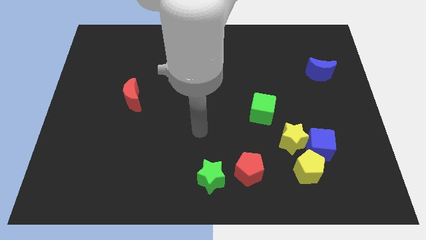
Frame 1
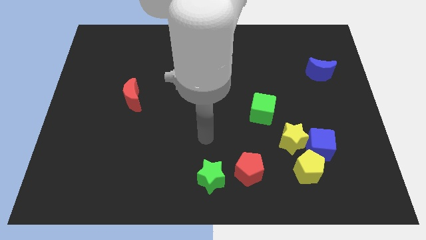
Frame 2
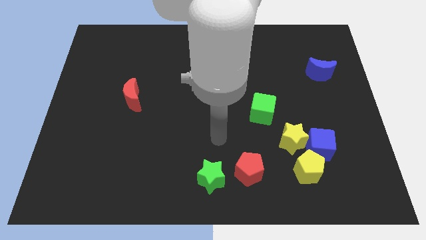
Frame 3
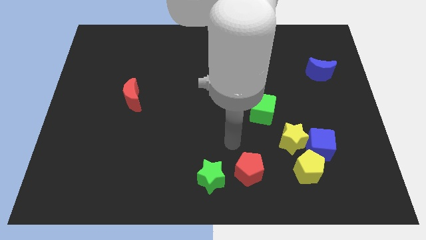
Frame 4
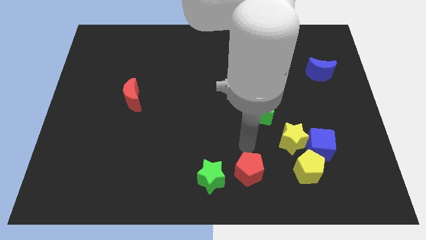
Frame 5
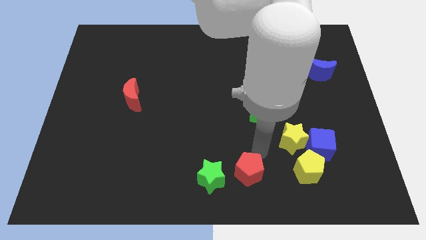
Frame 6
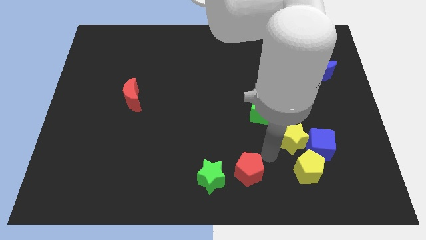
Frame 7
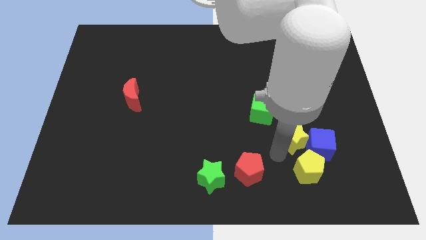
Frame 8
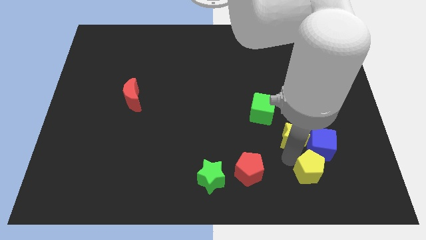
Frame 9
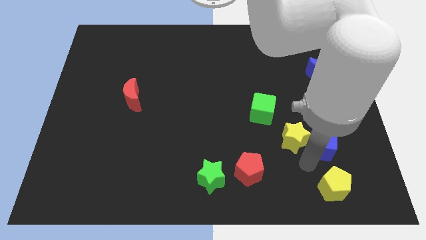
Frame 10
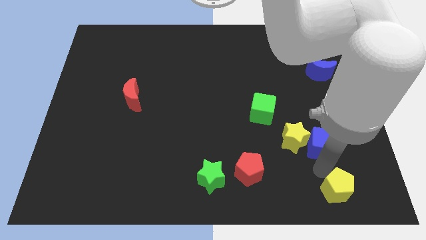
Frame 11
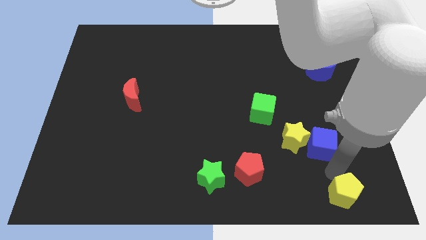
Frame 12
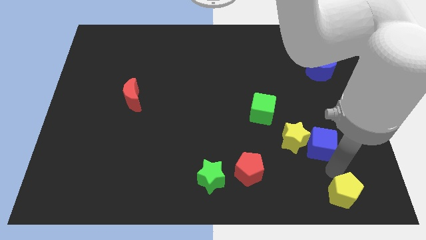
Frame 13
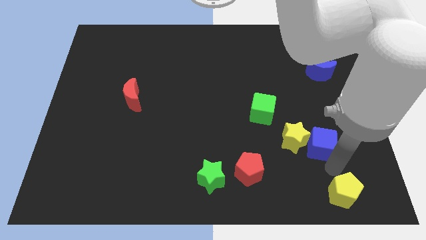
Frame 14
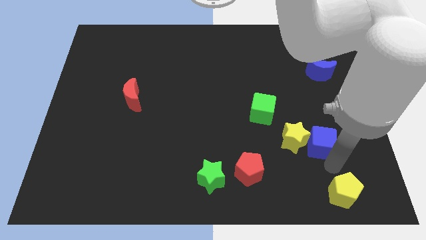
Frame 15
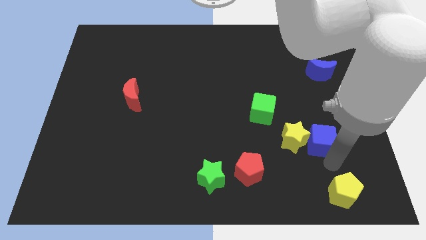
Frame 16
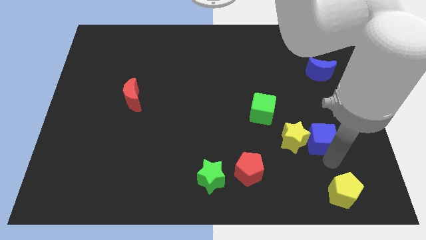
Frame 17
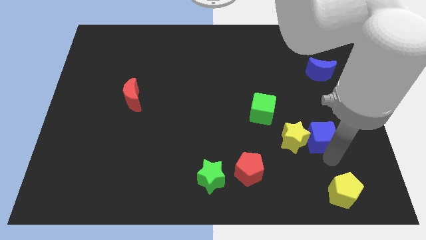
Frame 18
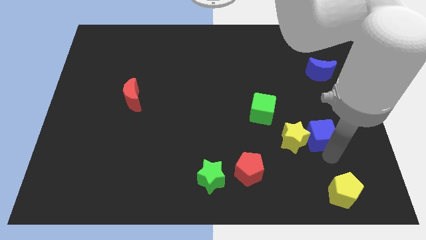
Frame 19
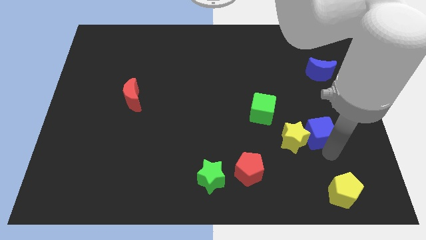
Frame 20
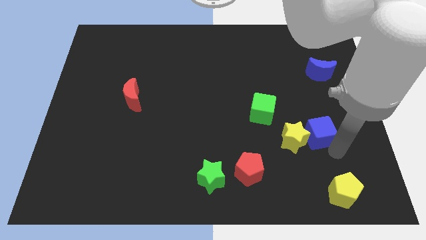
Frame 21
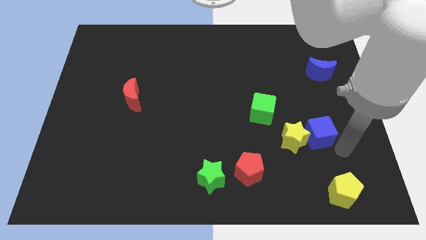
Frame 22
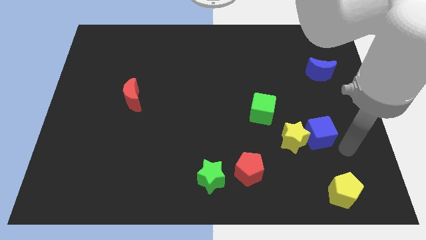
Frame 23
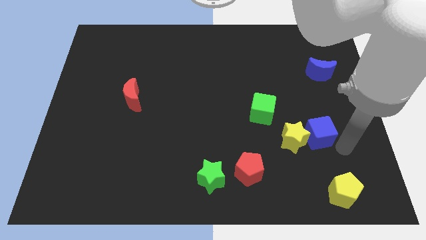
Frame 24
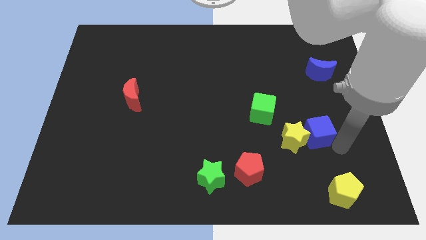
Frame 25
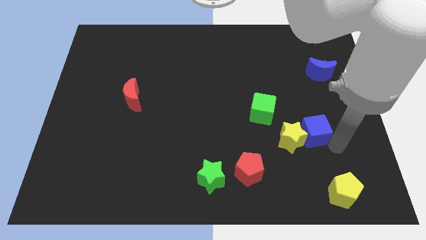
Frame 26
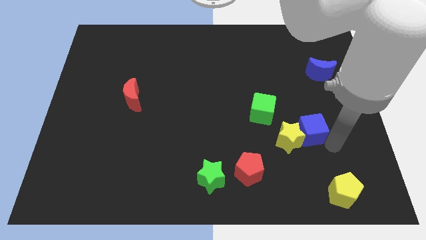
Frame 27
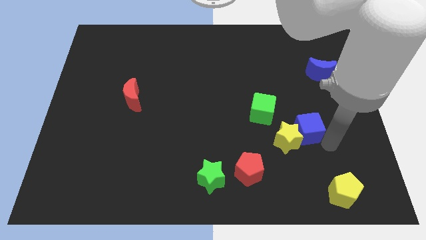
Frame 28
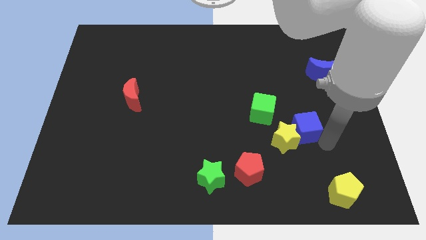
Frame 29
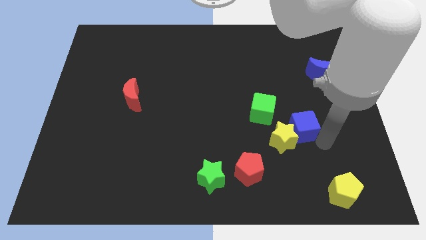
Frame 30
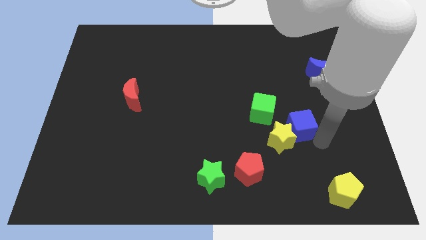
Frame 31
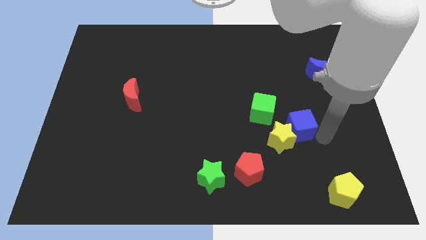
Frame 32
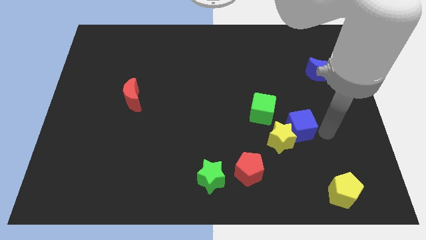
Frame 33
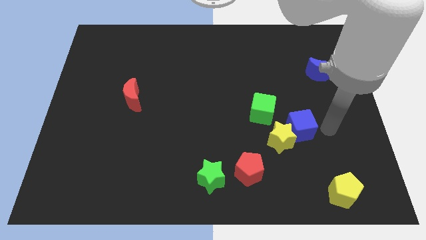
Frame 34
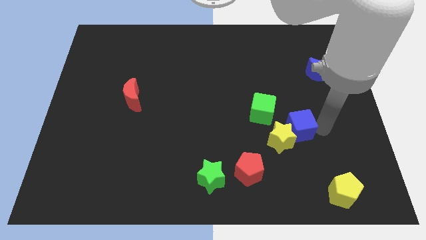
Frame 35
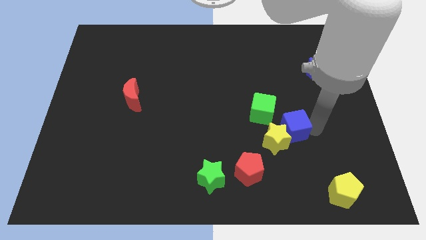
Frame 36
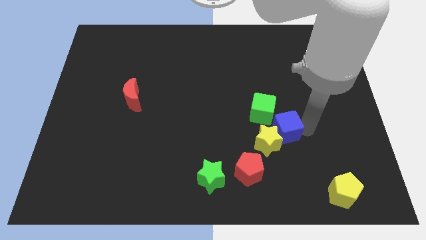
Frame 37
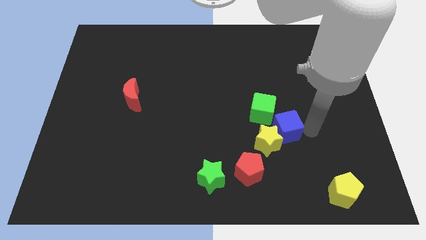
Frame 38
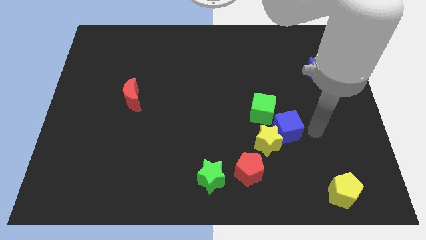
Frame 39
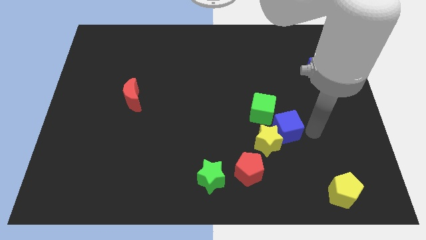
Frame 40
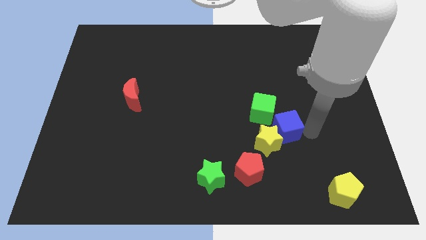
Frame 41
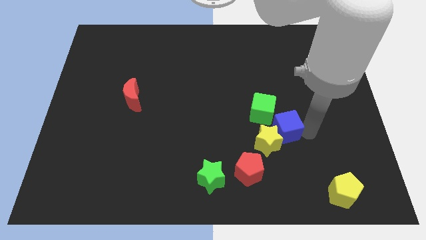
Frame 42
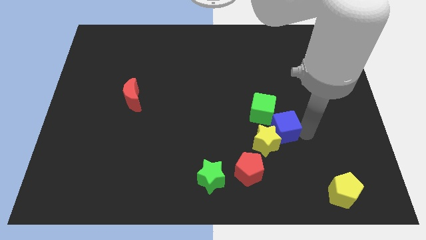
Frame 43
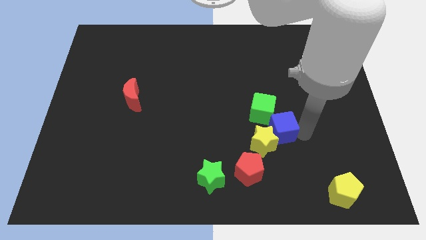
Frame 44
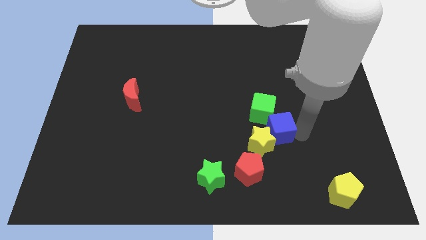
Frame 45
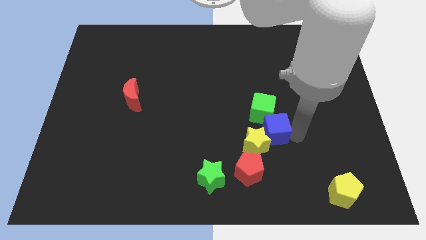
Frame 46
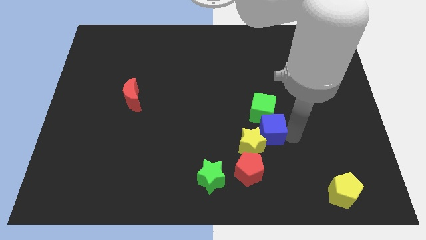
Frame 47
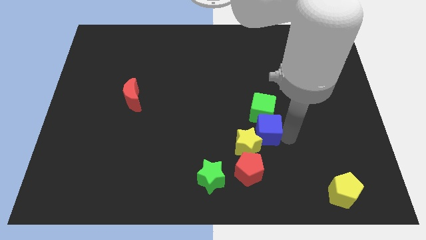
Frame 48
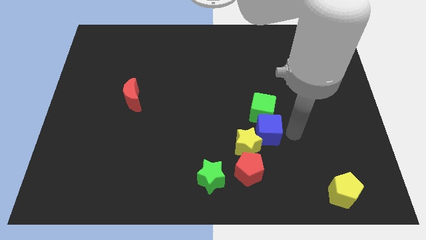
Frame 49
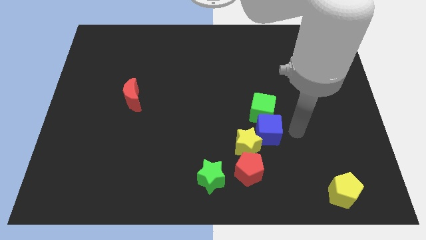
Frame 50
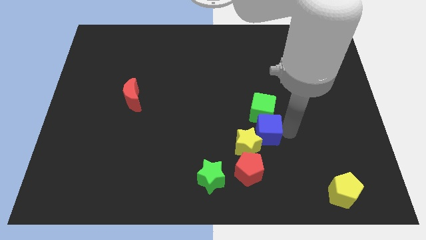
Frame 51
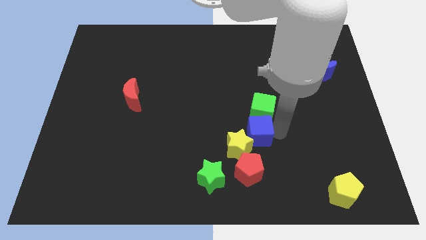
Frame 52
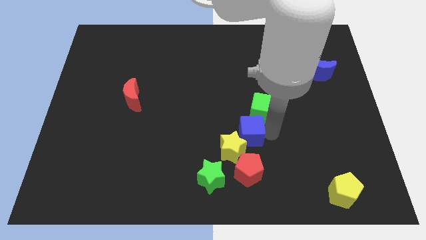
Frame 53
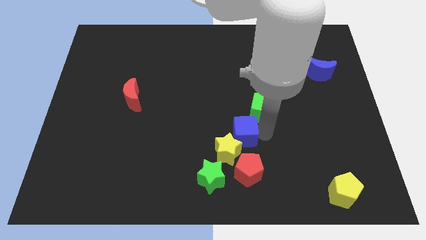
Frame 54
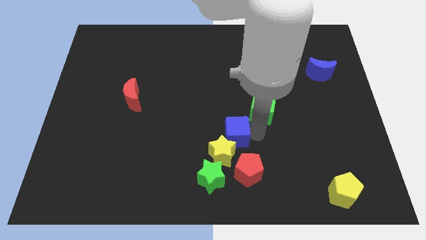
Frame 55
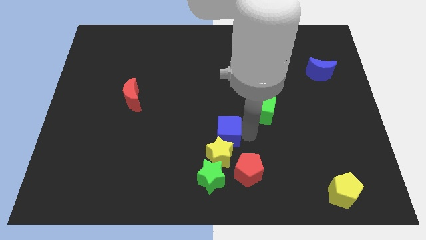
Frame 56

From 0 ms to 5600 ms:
put the blue cube above the green star

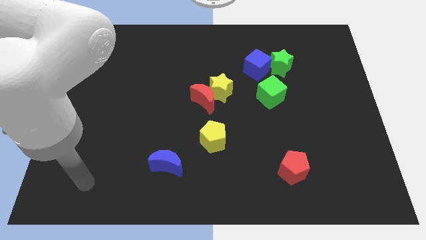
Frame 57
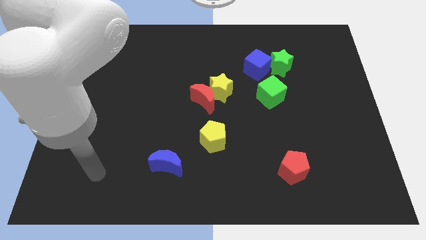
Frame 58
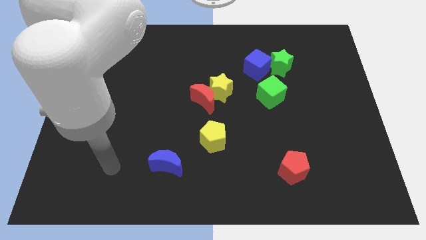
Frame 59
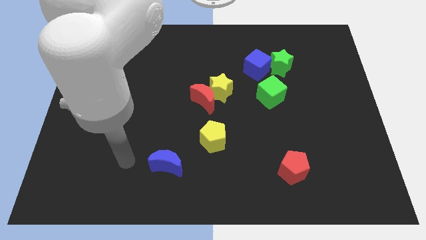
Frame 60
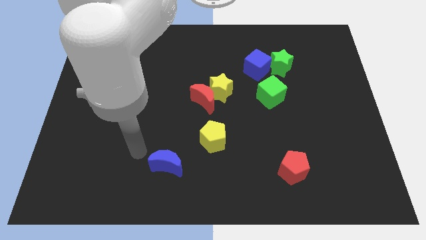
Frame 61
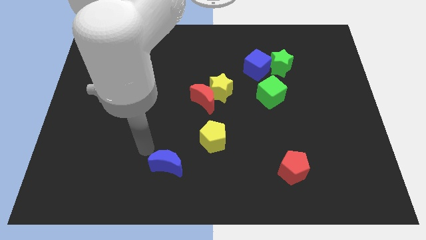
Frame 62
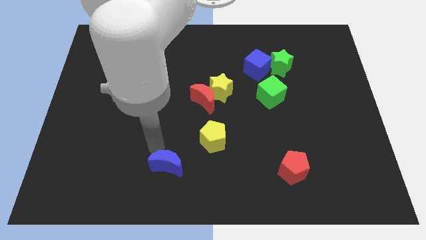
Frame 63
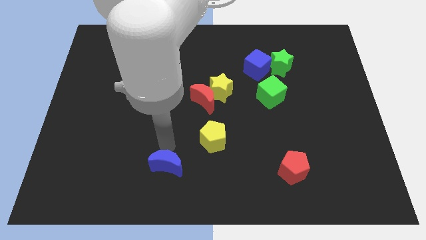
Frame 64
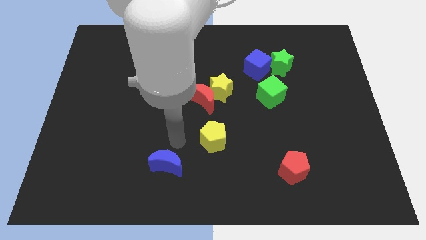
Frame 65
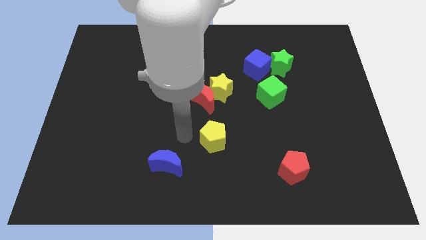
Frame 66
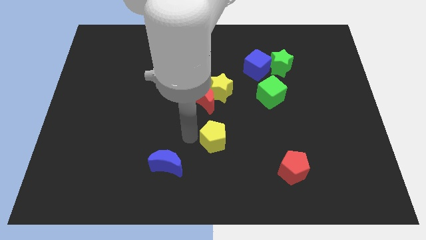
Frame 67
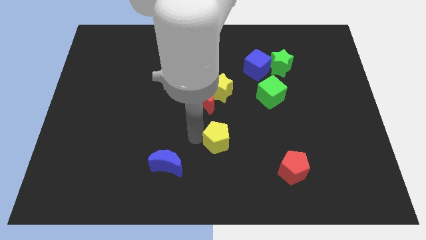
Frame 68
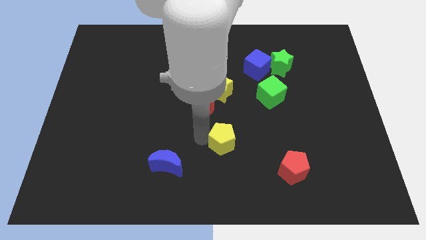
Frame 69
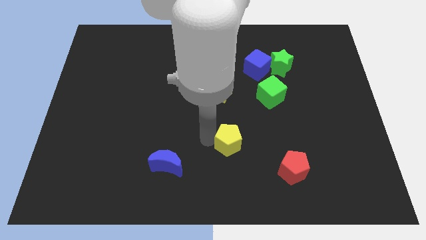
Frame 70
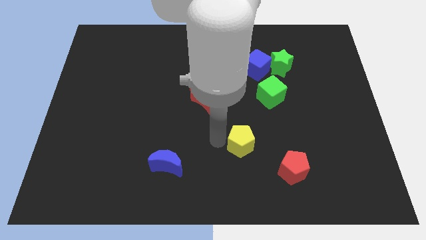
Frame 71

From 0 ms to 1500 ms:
push the yellow pentagon to the top left side of the red pentagon

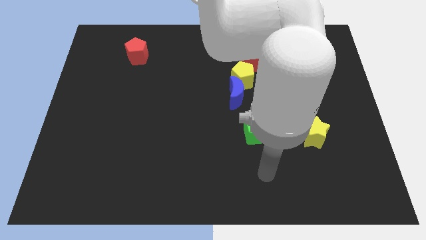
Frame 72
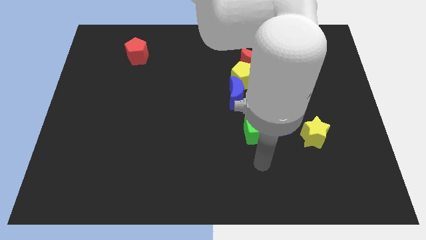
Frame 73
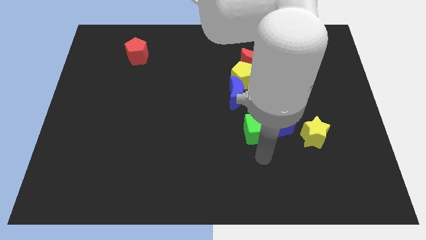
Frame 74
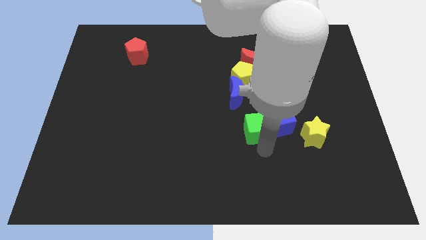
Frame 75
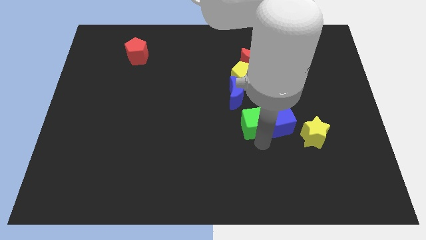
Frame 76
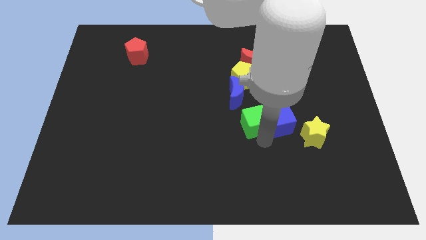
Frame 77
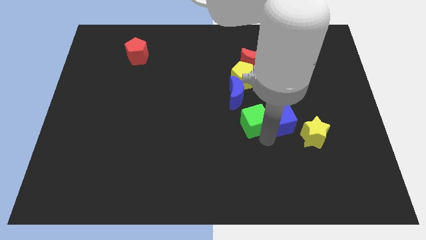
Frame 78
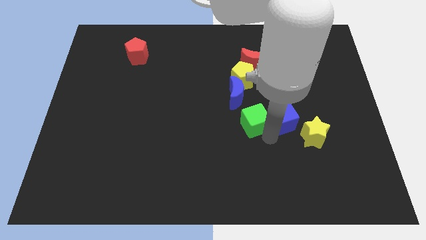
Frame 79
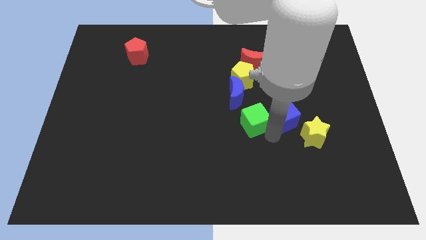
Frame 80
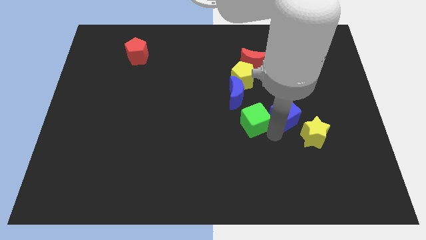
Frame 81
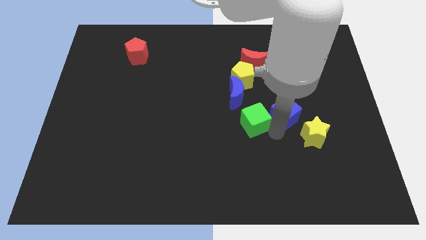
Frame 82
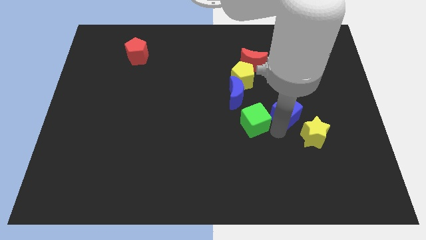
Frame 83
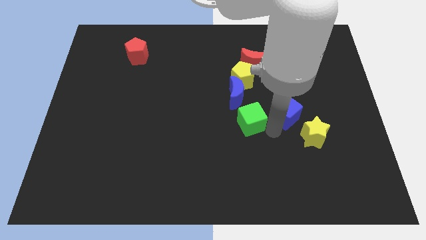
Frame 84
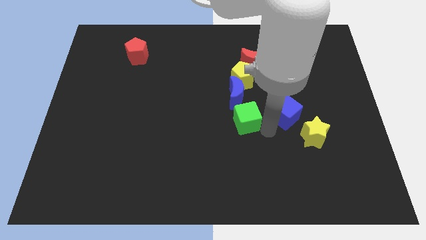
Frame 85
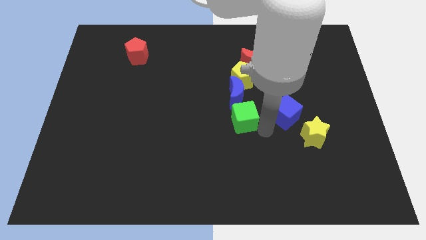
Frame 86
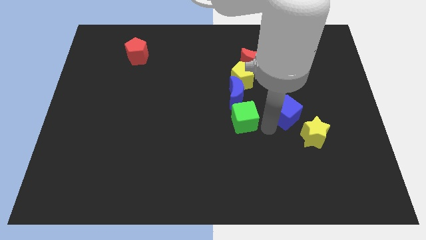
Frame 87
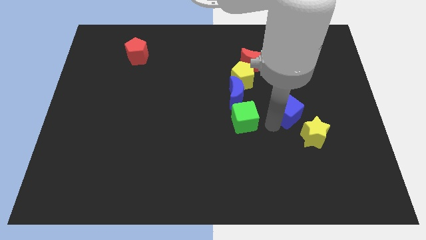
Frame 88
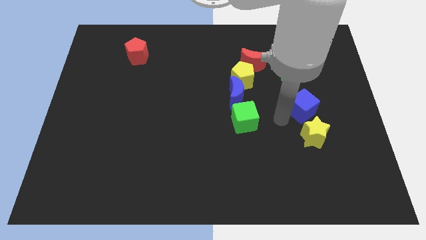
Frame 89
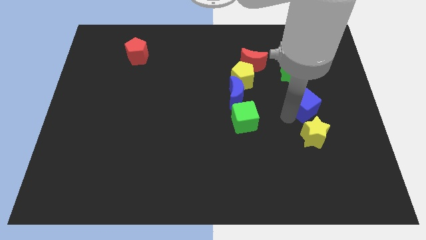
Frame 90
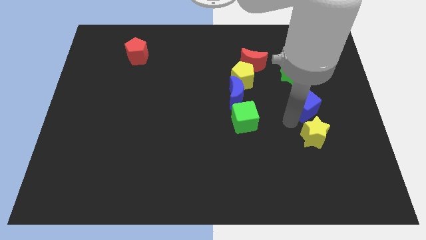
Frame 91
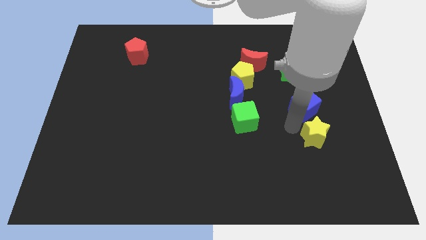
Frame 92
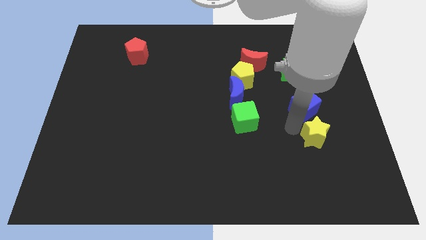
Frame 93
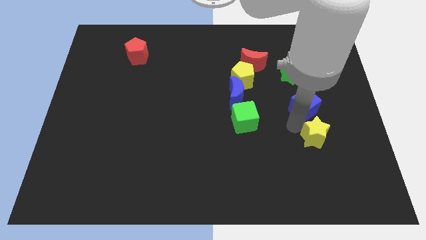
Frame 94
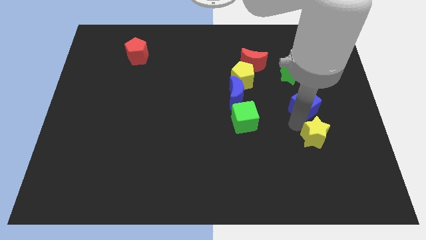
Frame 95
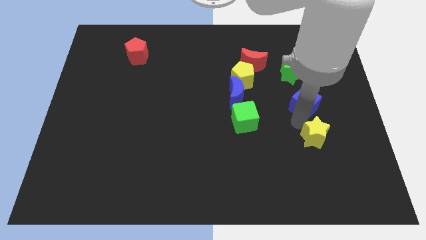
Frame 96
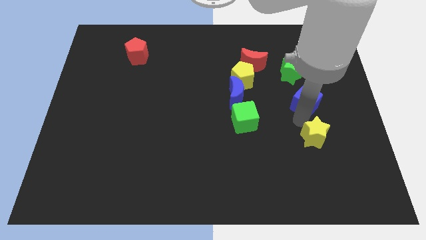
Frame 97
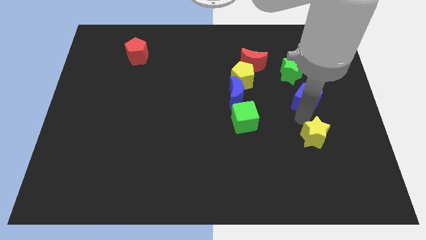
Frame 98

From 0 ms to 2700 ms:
push the blue cube to the bottom right of the green star
